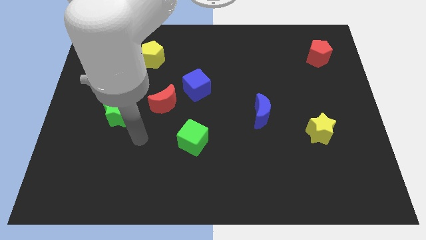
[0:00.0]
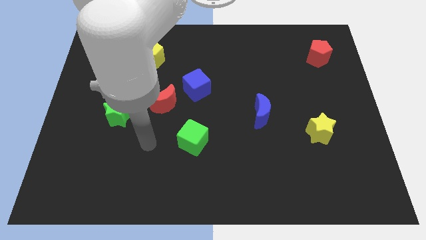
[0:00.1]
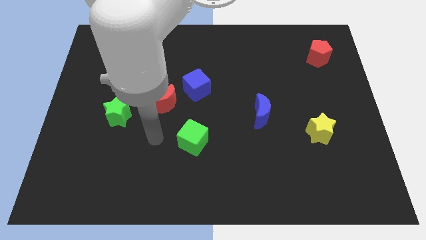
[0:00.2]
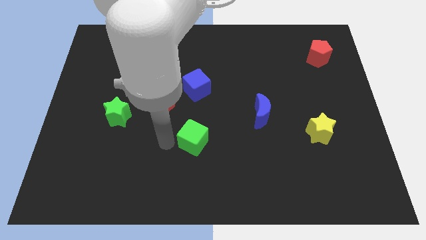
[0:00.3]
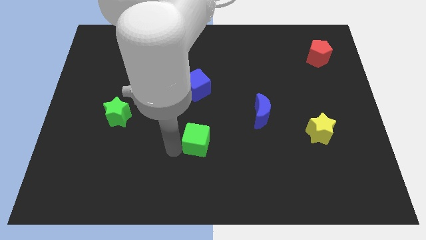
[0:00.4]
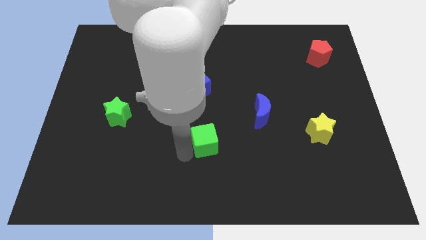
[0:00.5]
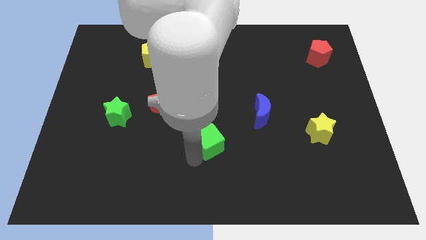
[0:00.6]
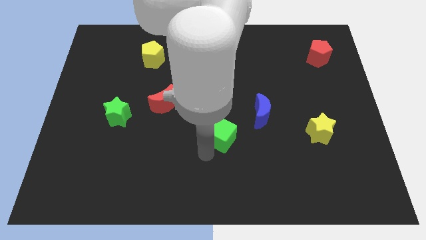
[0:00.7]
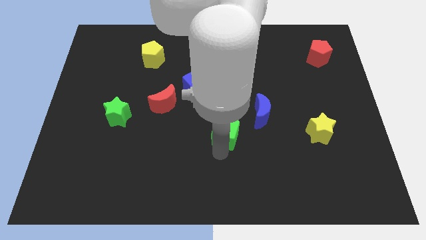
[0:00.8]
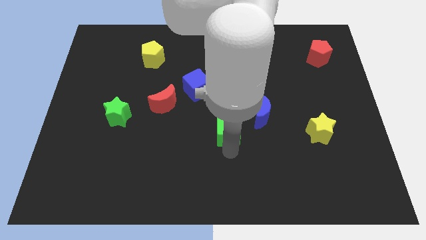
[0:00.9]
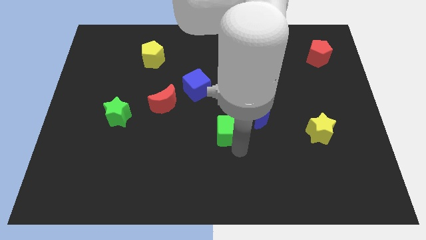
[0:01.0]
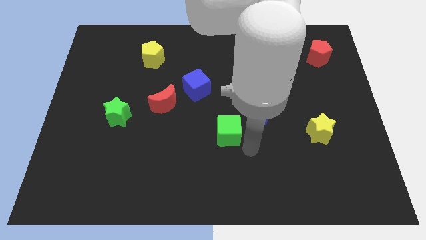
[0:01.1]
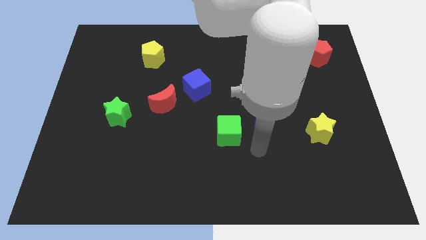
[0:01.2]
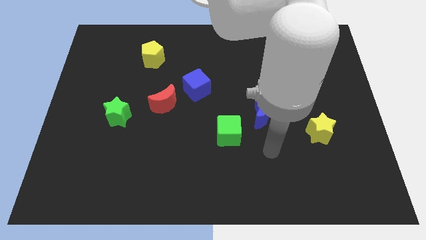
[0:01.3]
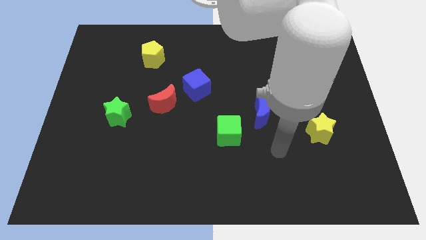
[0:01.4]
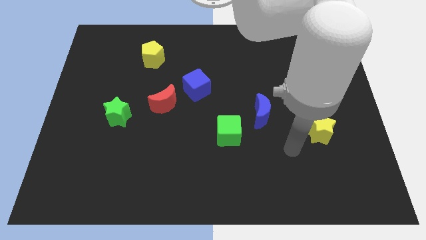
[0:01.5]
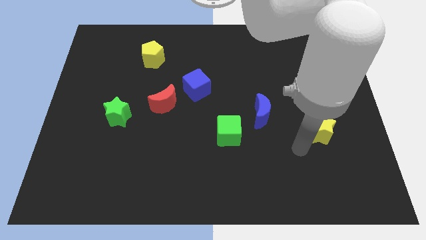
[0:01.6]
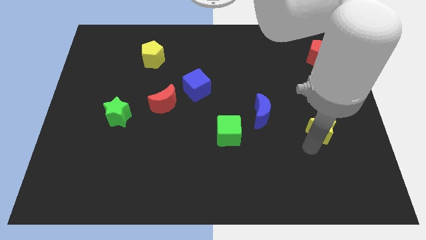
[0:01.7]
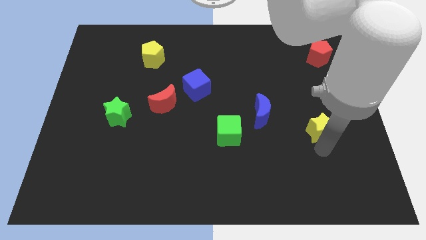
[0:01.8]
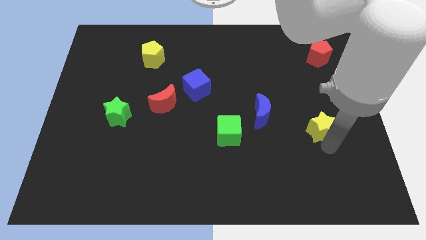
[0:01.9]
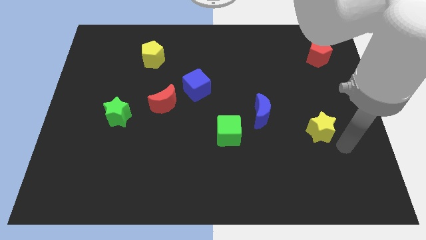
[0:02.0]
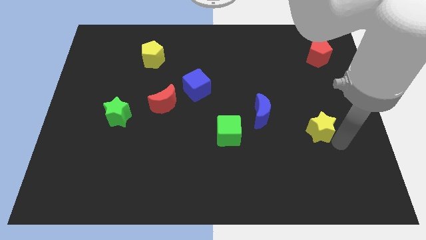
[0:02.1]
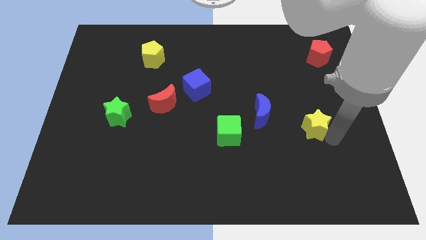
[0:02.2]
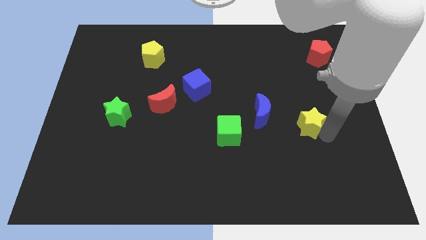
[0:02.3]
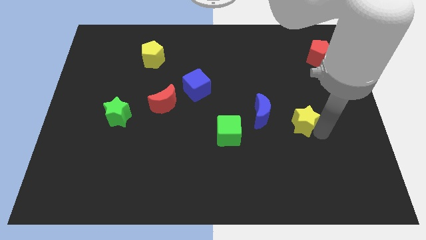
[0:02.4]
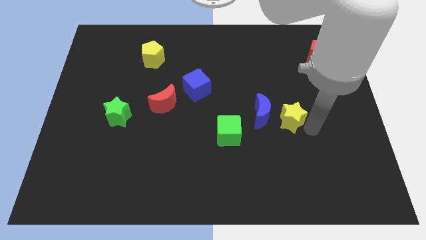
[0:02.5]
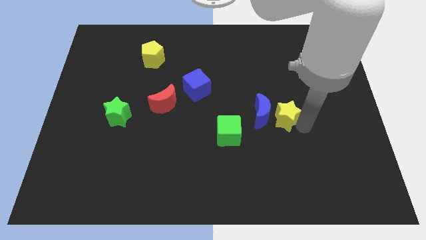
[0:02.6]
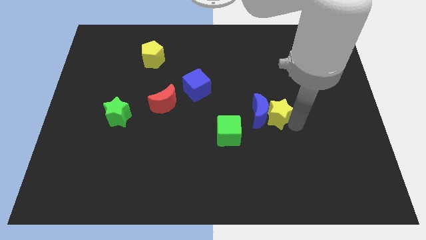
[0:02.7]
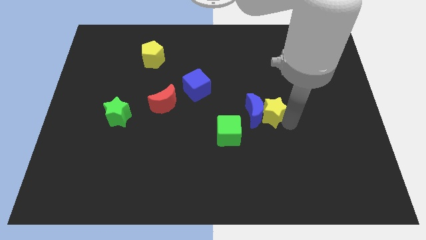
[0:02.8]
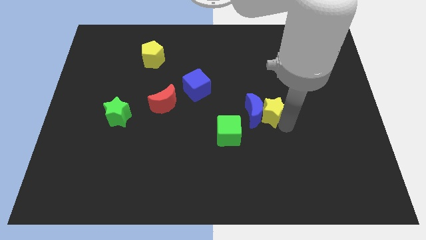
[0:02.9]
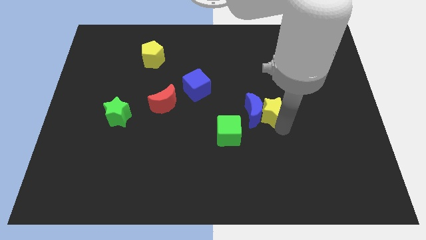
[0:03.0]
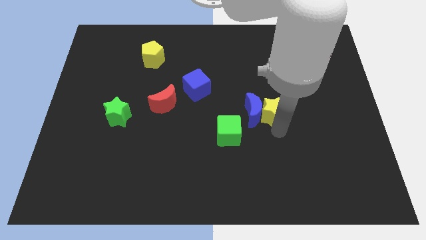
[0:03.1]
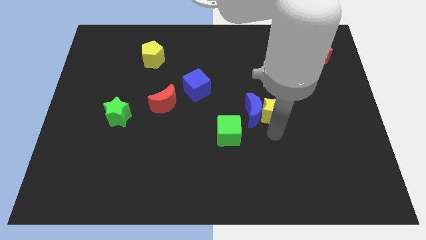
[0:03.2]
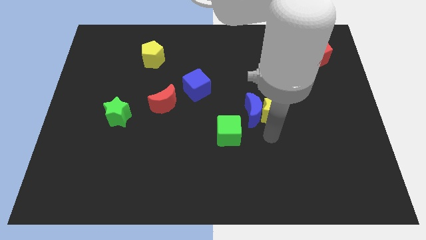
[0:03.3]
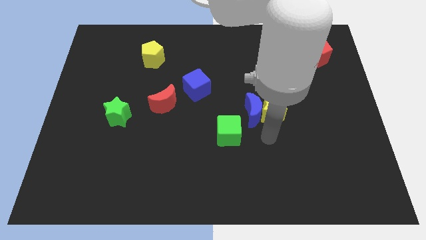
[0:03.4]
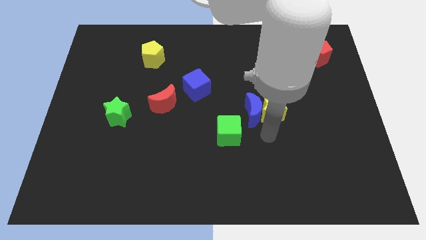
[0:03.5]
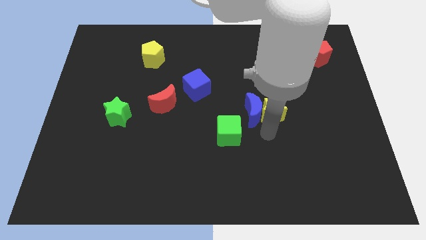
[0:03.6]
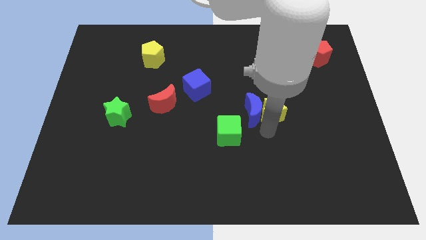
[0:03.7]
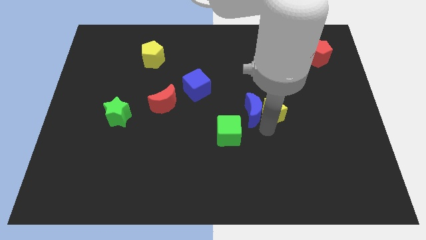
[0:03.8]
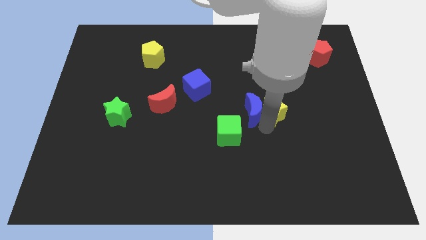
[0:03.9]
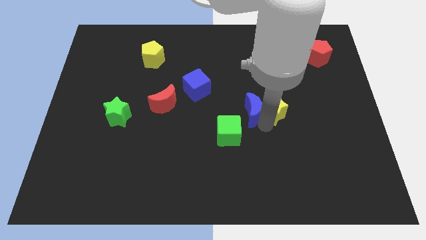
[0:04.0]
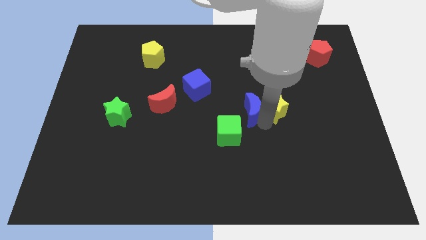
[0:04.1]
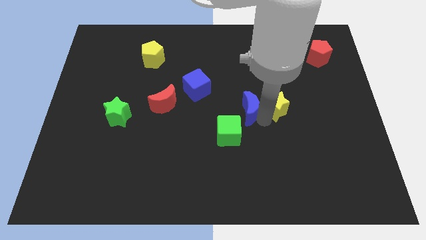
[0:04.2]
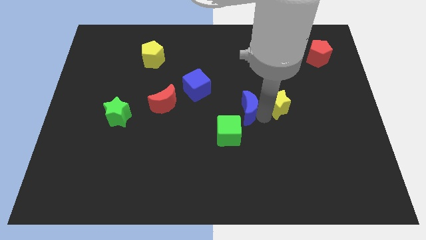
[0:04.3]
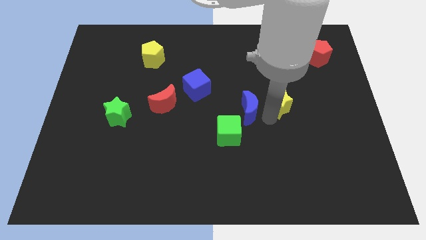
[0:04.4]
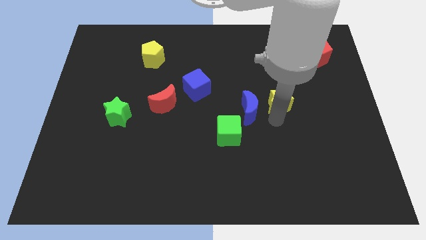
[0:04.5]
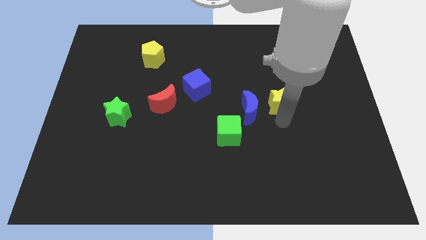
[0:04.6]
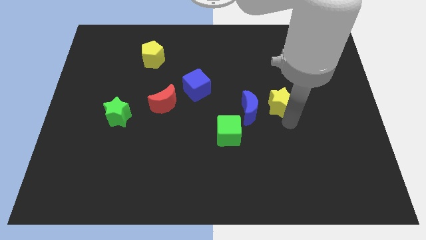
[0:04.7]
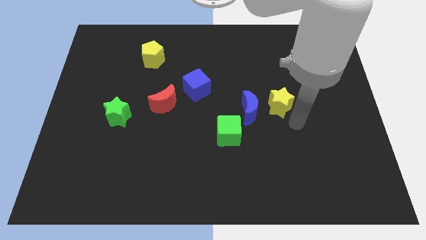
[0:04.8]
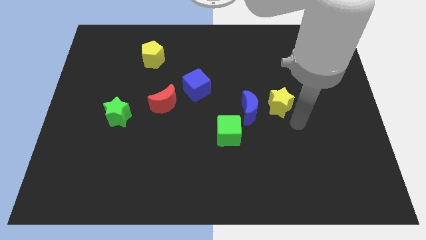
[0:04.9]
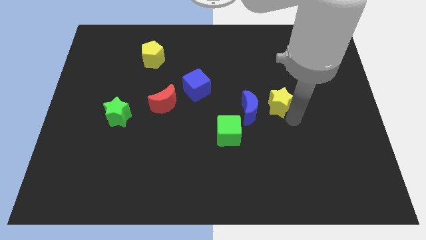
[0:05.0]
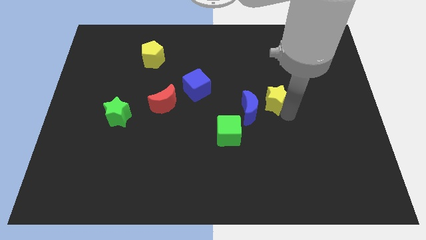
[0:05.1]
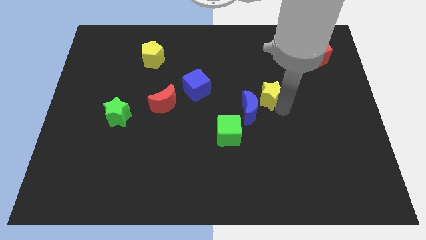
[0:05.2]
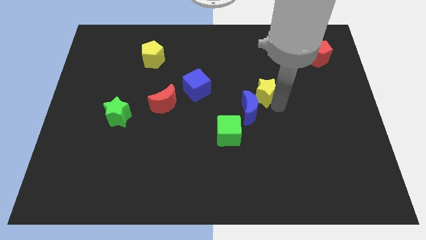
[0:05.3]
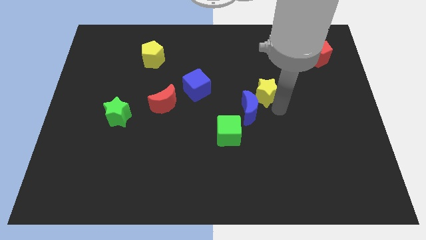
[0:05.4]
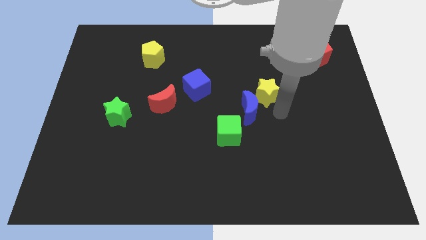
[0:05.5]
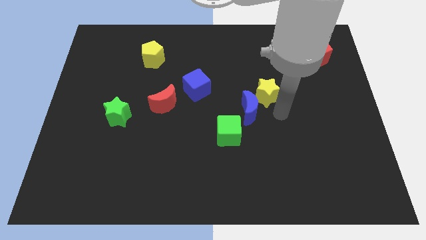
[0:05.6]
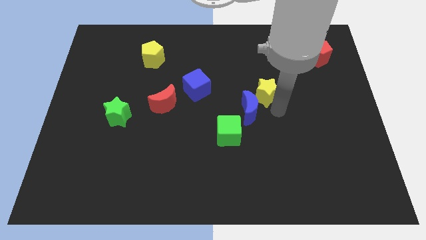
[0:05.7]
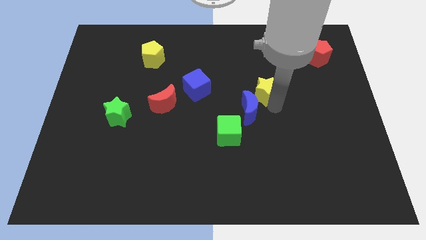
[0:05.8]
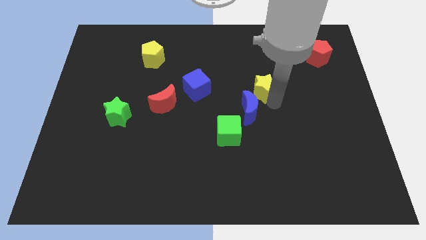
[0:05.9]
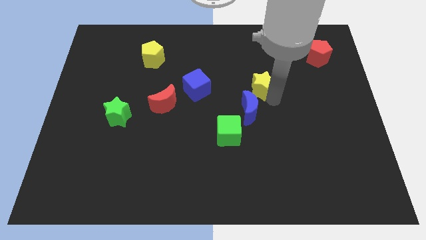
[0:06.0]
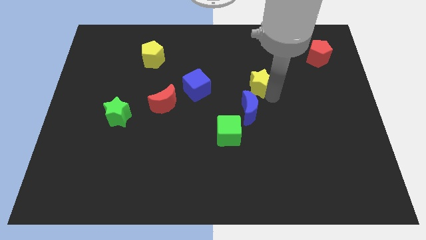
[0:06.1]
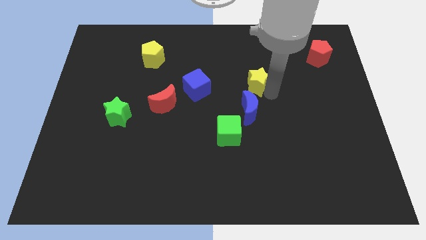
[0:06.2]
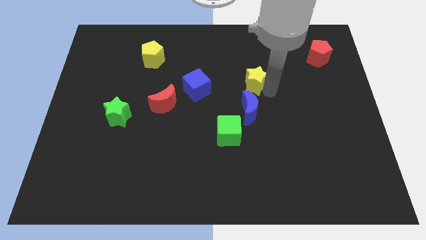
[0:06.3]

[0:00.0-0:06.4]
slide the yellow star up and left diagonally

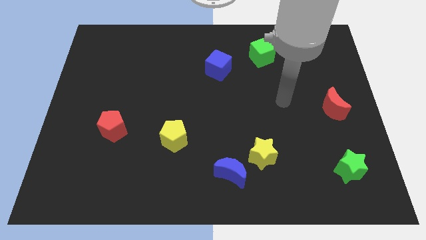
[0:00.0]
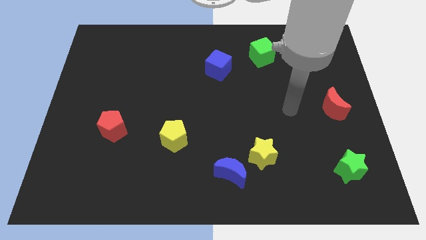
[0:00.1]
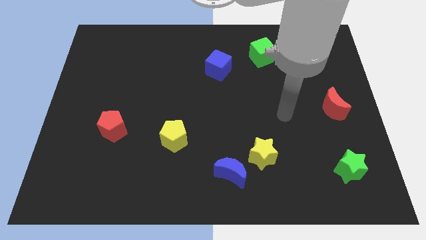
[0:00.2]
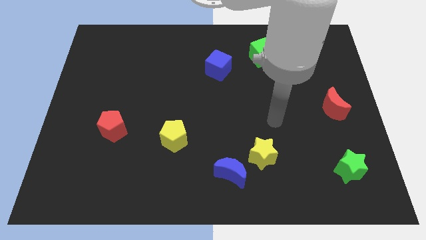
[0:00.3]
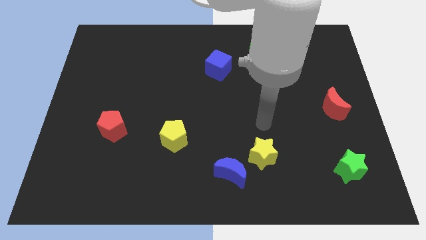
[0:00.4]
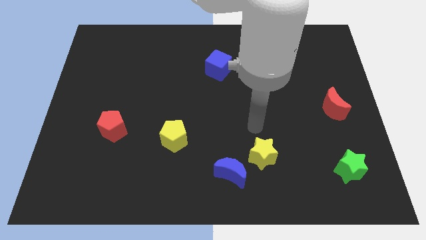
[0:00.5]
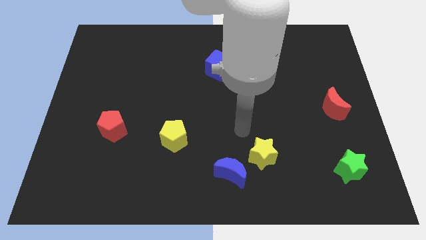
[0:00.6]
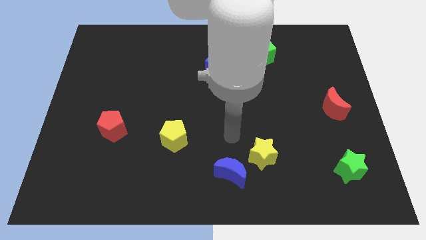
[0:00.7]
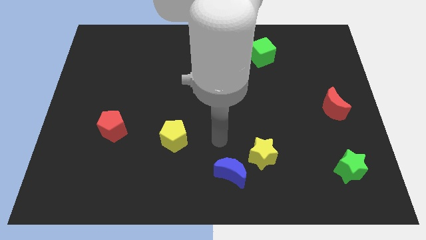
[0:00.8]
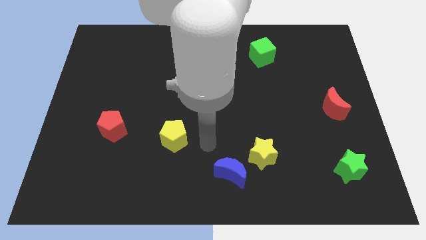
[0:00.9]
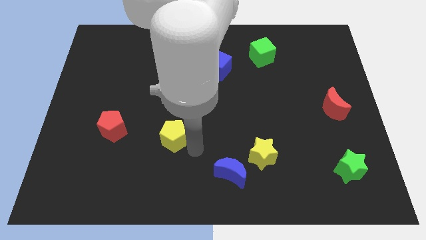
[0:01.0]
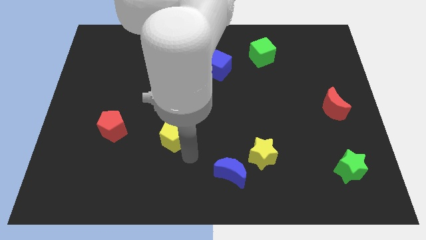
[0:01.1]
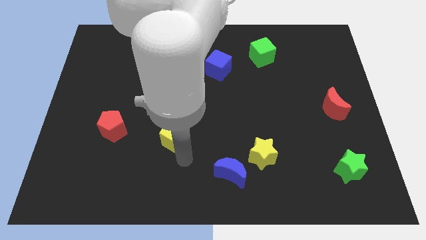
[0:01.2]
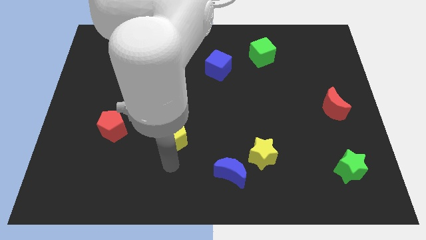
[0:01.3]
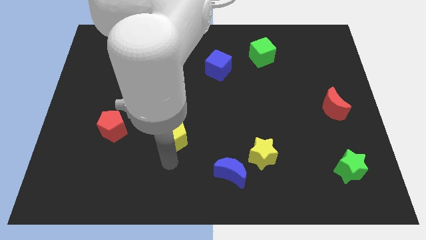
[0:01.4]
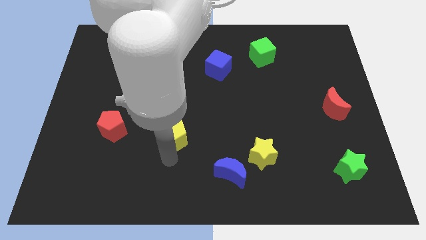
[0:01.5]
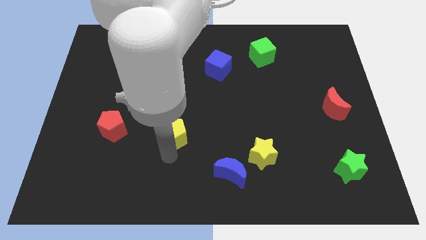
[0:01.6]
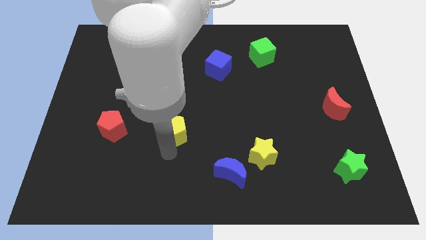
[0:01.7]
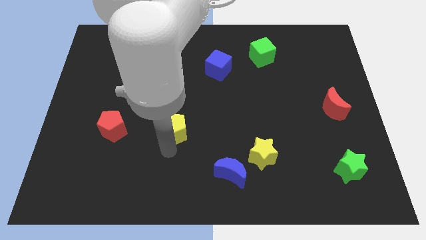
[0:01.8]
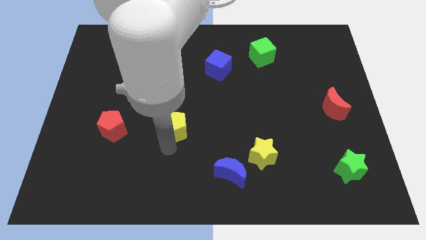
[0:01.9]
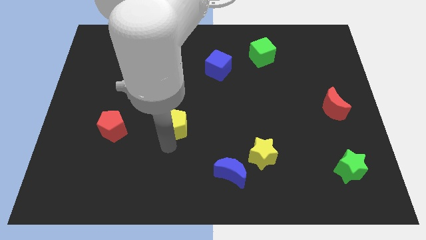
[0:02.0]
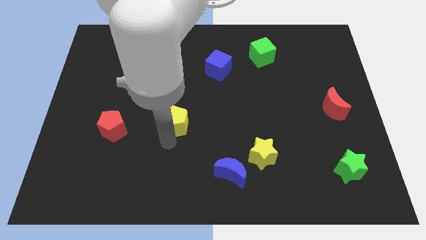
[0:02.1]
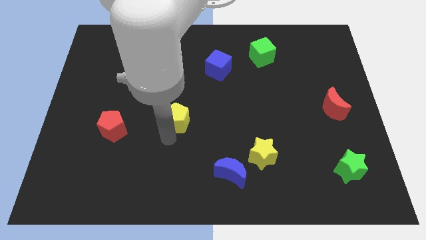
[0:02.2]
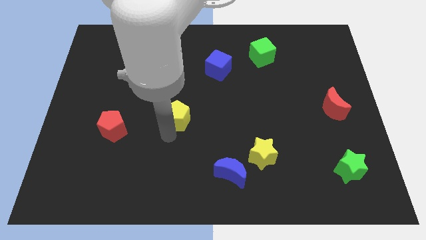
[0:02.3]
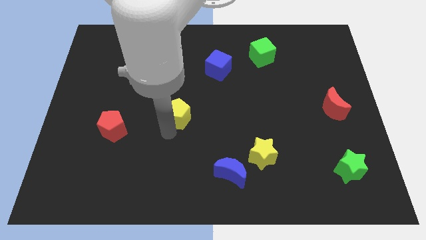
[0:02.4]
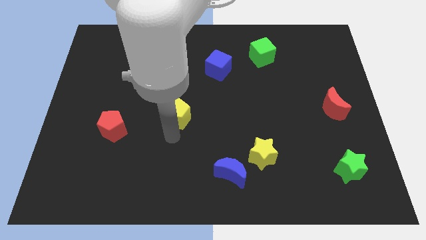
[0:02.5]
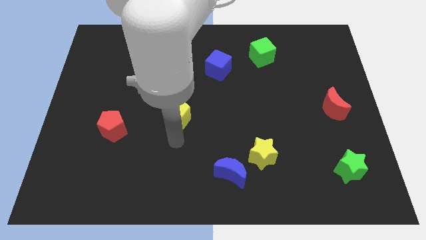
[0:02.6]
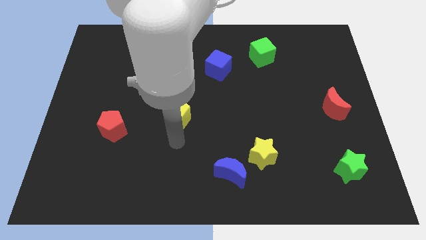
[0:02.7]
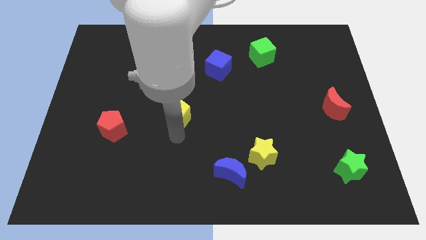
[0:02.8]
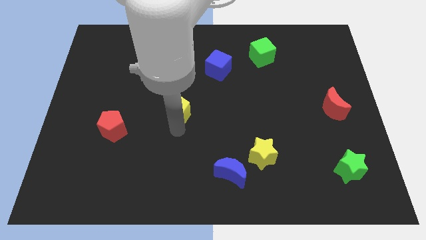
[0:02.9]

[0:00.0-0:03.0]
slightly slide the yellow pentagon upwards
